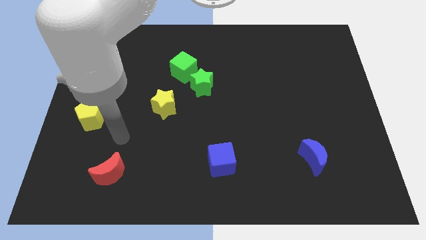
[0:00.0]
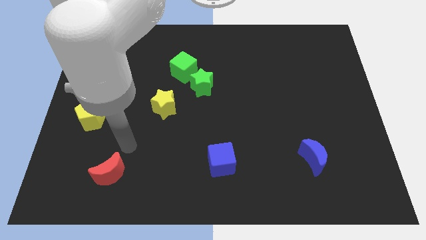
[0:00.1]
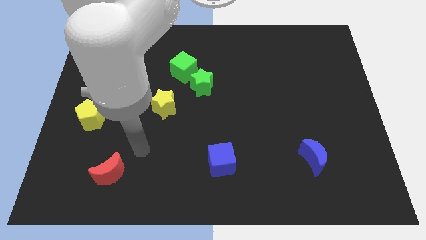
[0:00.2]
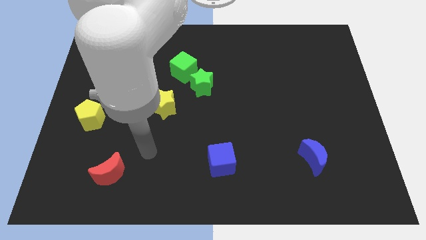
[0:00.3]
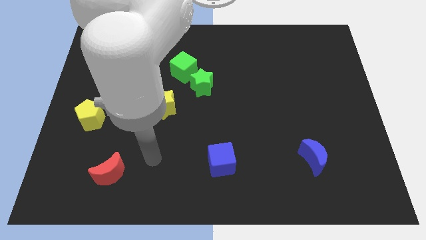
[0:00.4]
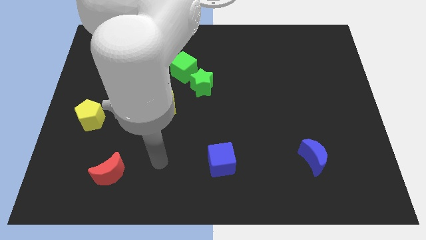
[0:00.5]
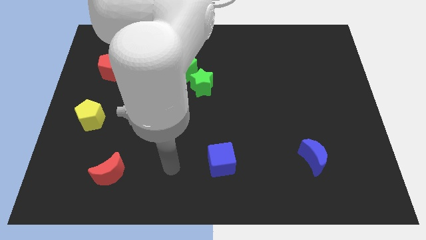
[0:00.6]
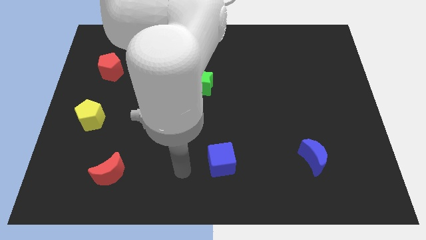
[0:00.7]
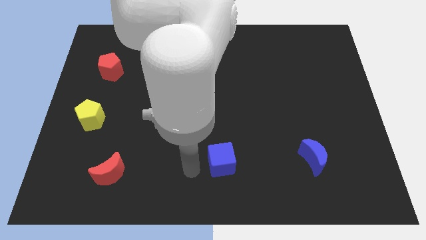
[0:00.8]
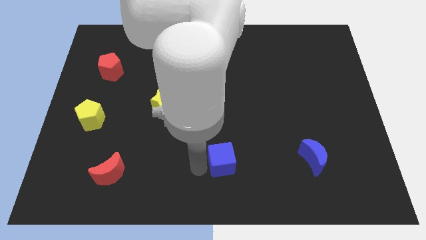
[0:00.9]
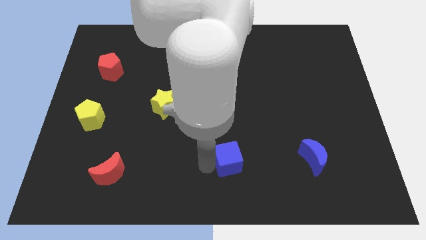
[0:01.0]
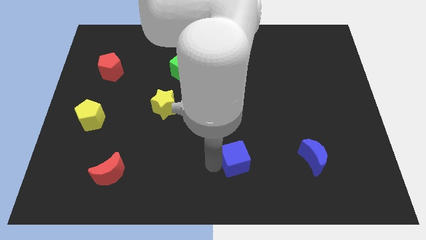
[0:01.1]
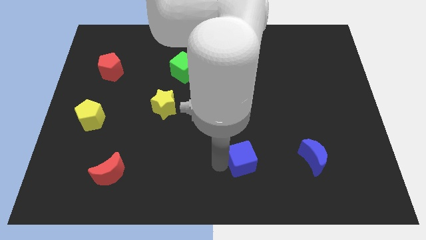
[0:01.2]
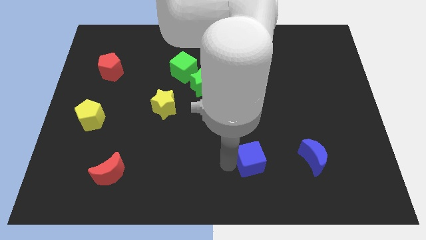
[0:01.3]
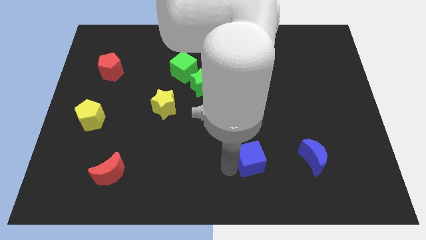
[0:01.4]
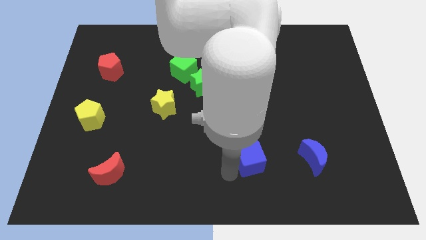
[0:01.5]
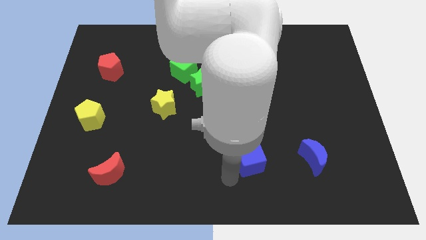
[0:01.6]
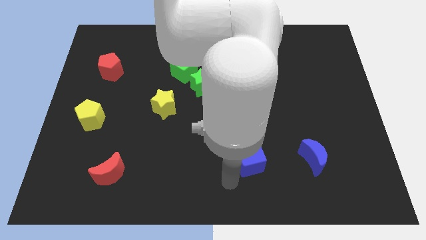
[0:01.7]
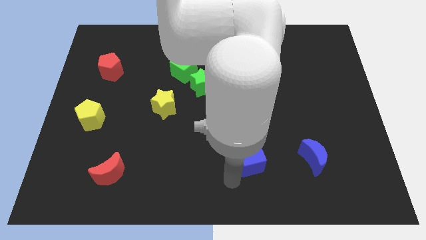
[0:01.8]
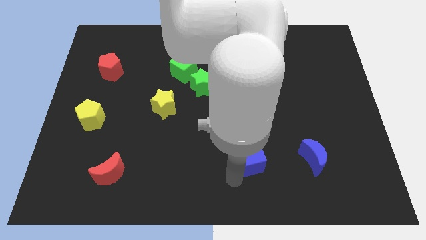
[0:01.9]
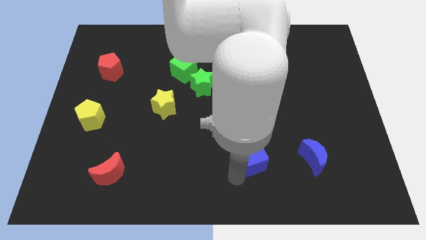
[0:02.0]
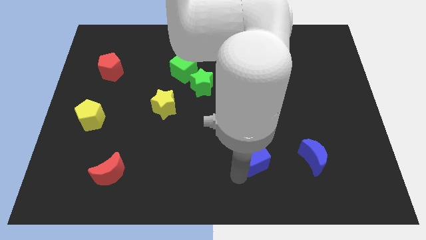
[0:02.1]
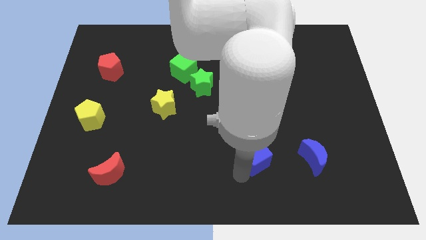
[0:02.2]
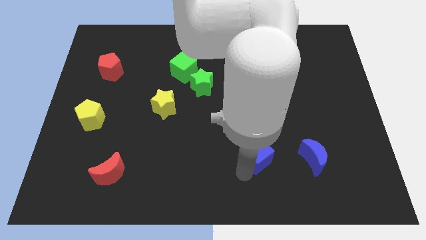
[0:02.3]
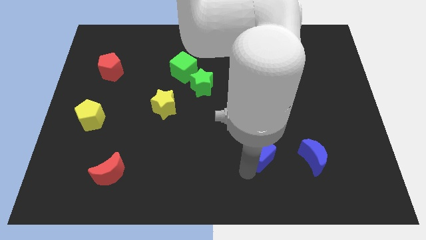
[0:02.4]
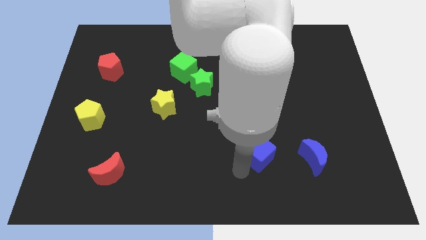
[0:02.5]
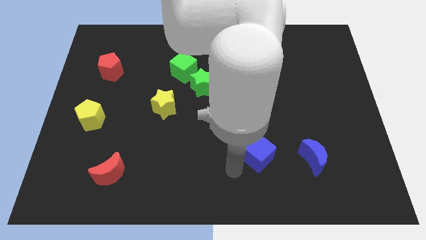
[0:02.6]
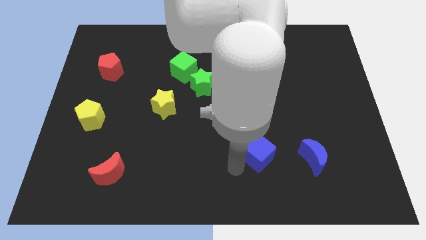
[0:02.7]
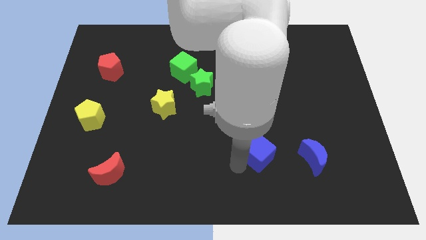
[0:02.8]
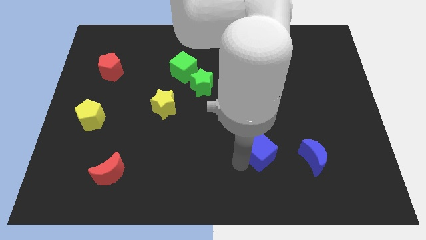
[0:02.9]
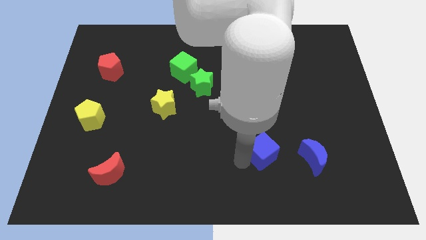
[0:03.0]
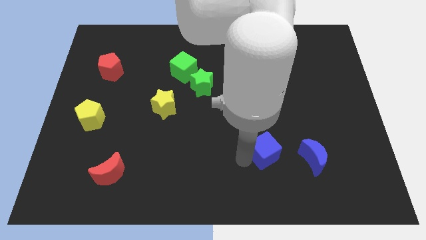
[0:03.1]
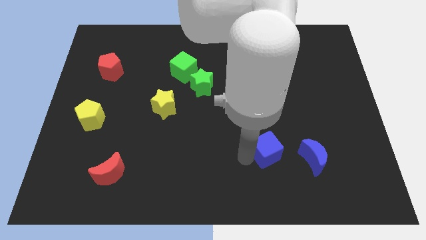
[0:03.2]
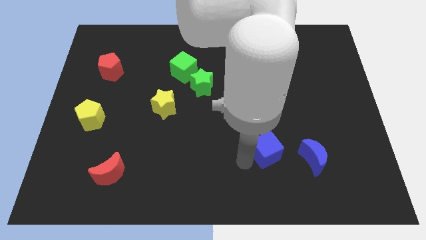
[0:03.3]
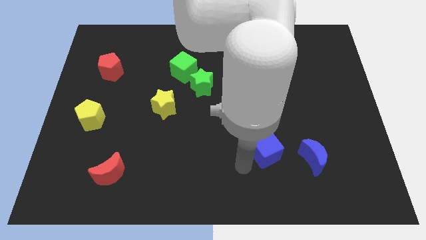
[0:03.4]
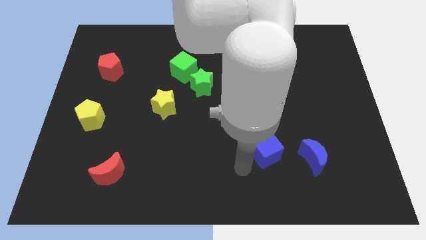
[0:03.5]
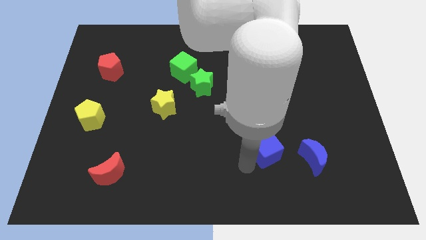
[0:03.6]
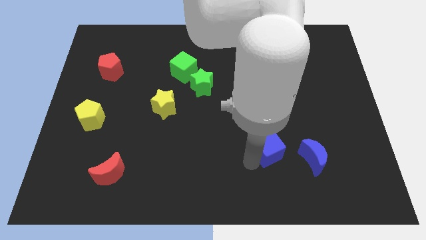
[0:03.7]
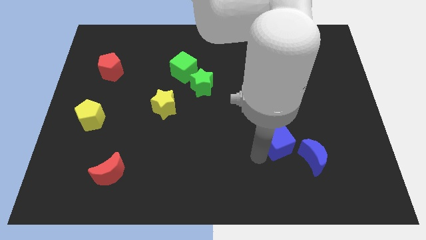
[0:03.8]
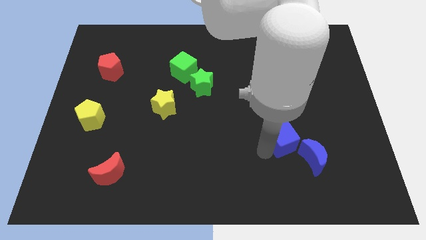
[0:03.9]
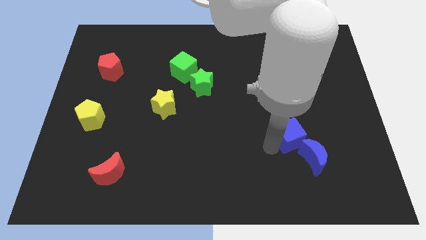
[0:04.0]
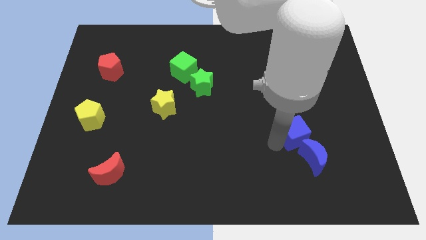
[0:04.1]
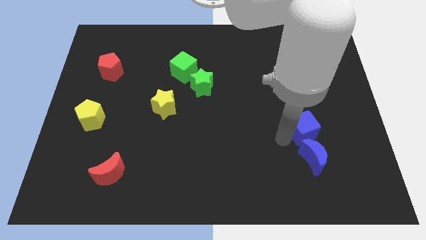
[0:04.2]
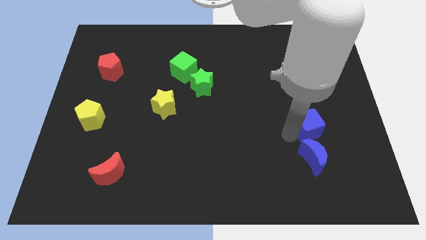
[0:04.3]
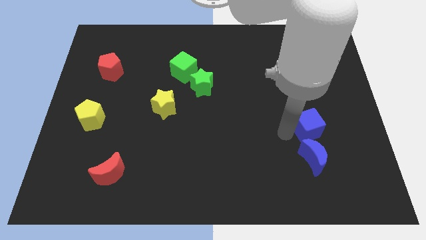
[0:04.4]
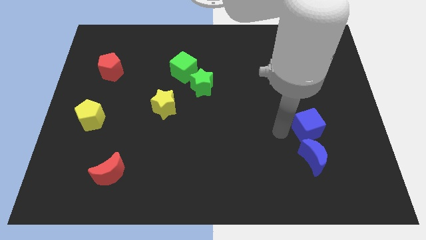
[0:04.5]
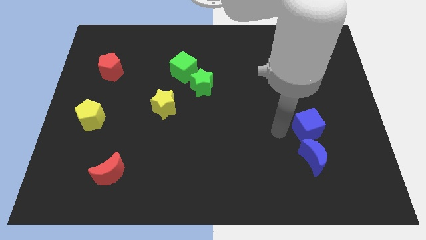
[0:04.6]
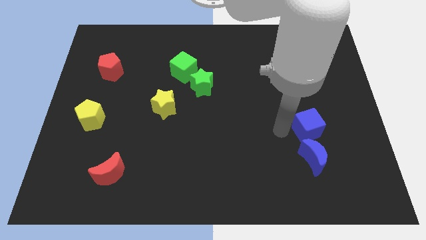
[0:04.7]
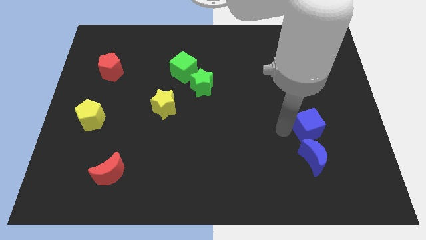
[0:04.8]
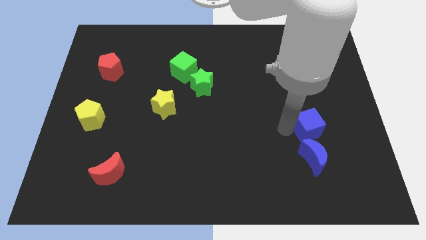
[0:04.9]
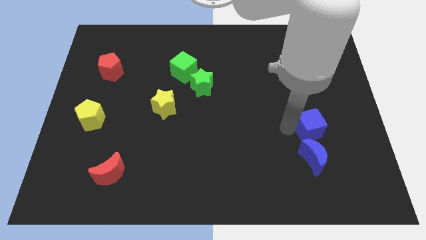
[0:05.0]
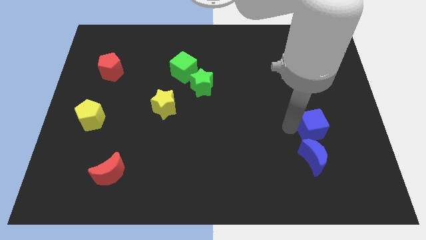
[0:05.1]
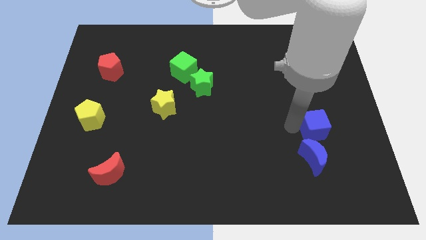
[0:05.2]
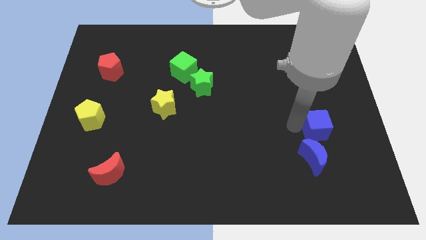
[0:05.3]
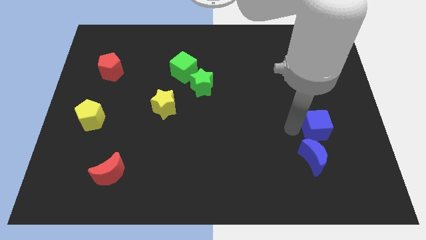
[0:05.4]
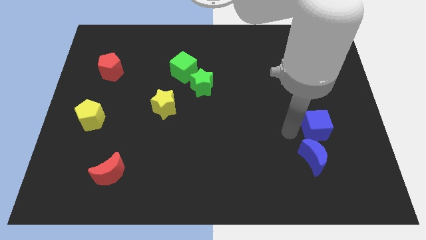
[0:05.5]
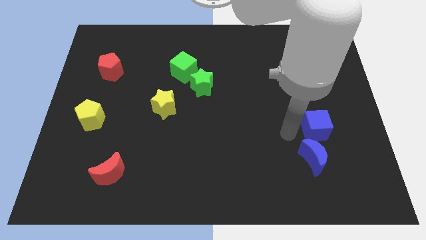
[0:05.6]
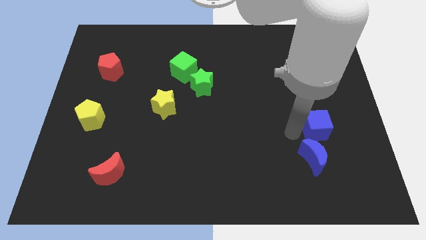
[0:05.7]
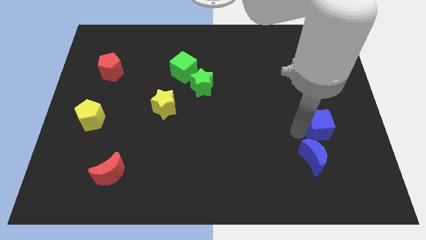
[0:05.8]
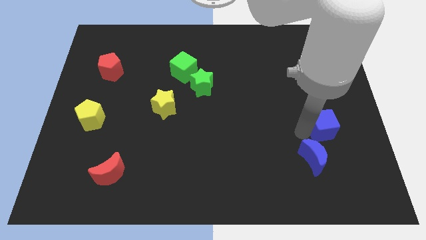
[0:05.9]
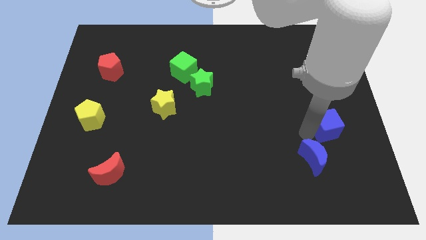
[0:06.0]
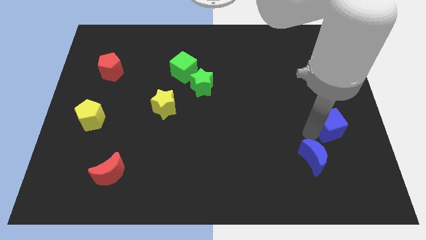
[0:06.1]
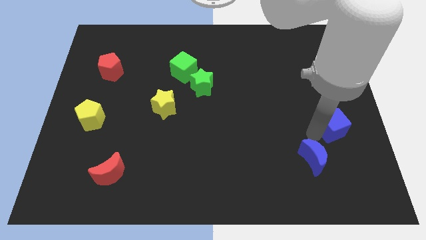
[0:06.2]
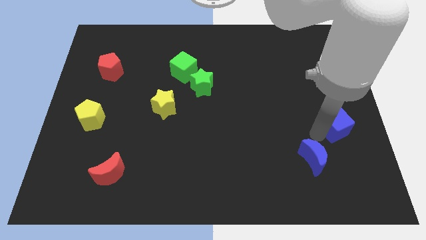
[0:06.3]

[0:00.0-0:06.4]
slide the blue cube to the center right

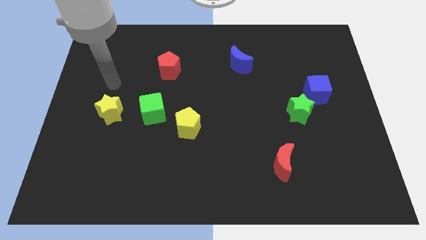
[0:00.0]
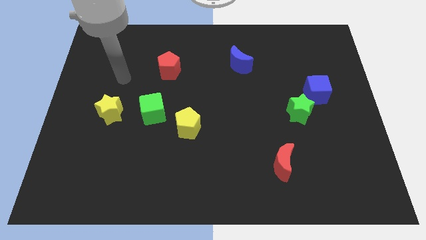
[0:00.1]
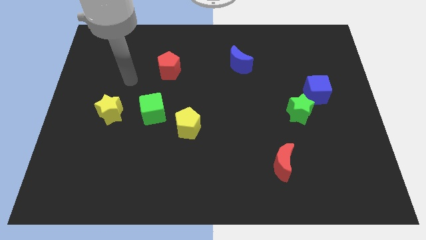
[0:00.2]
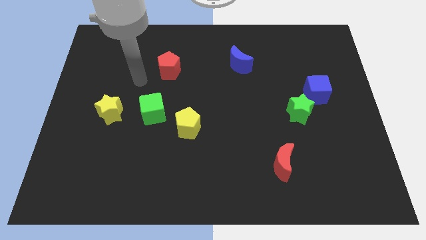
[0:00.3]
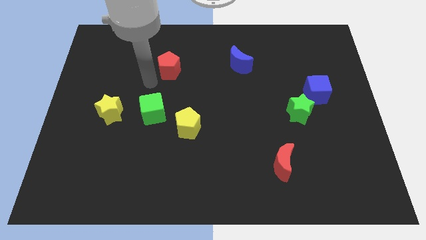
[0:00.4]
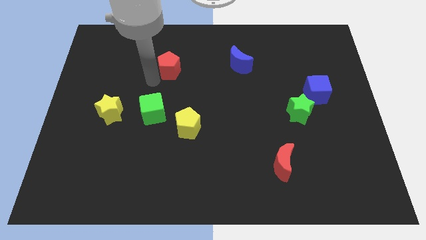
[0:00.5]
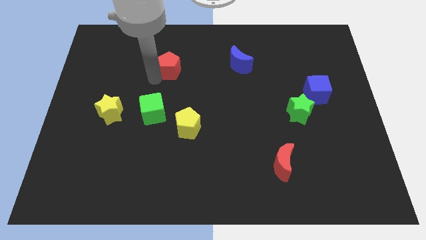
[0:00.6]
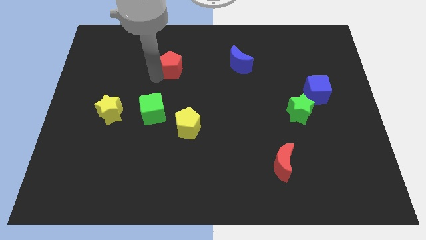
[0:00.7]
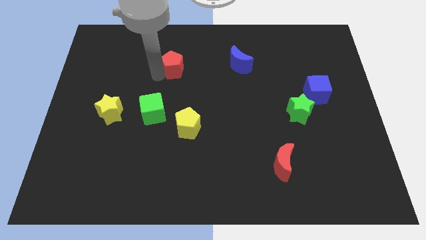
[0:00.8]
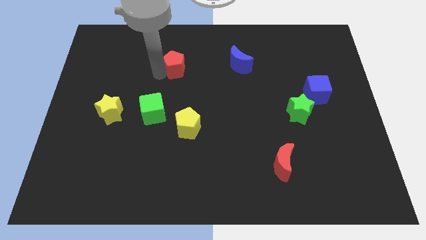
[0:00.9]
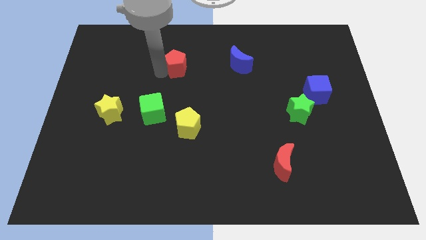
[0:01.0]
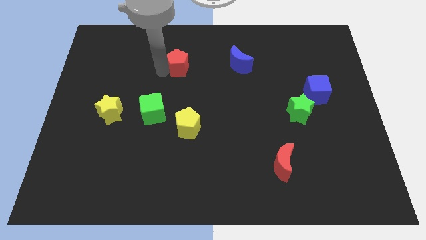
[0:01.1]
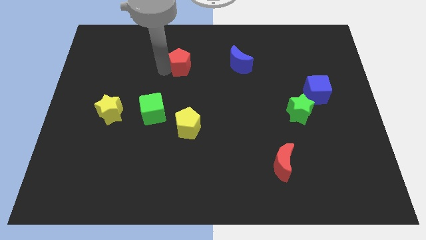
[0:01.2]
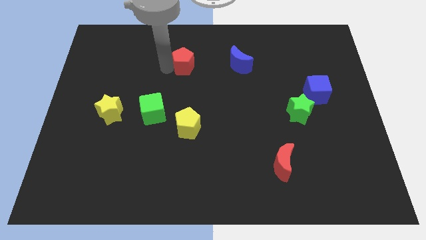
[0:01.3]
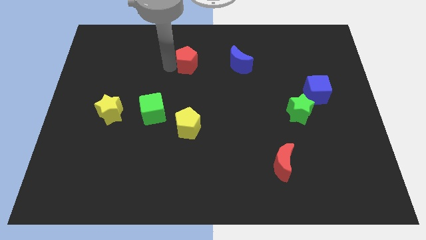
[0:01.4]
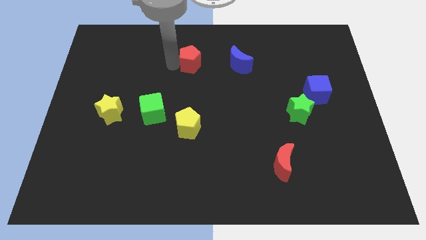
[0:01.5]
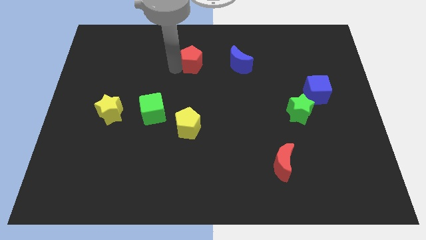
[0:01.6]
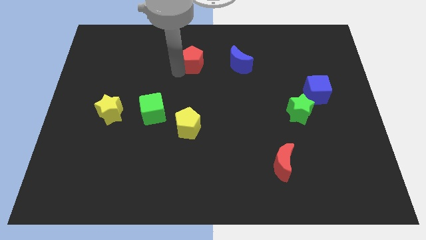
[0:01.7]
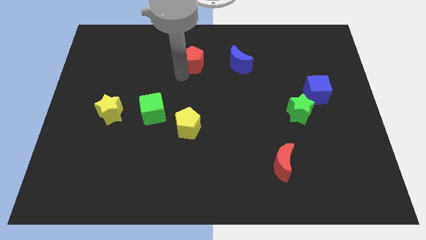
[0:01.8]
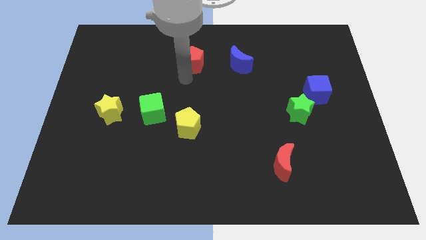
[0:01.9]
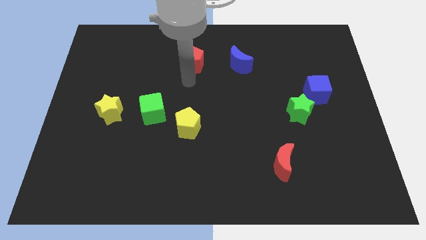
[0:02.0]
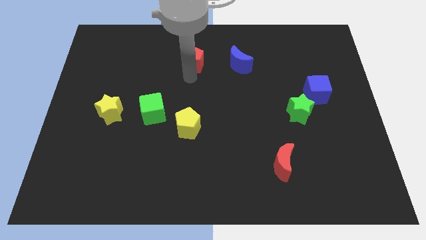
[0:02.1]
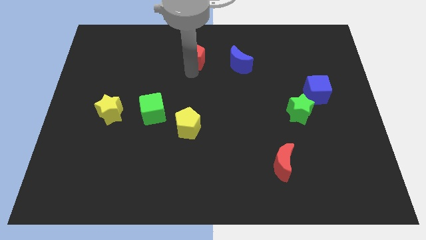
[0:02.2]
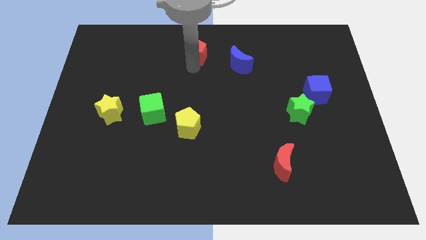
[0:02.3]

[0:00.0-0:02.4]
put the red pentagon to the top side
